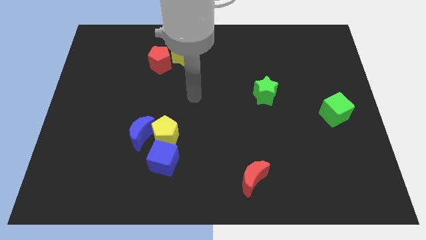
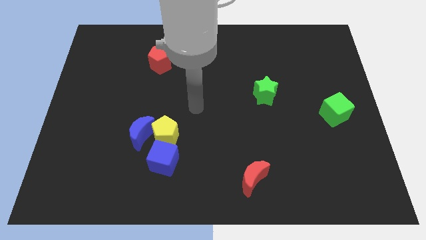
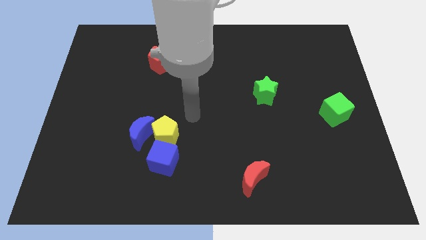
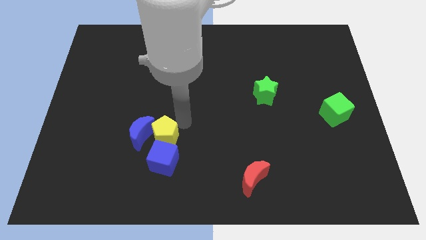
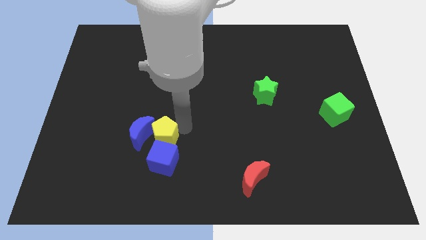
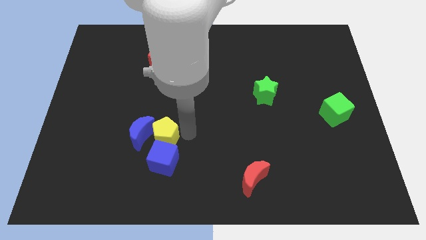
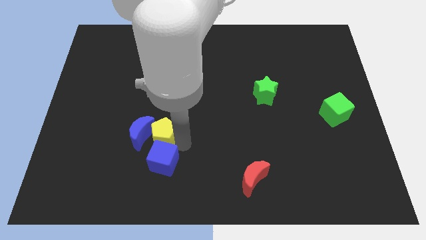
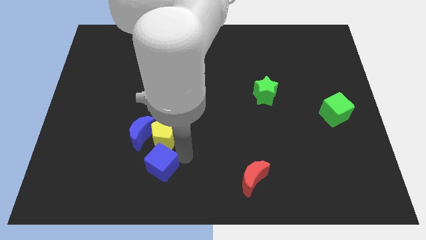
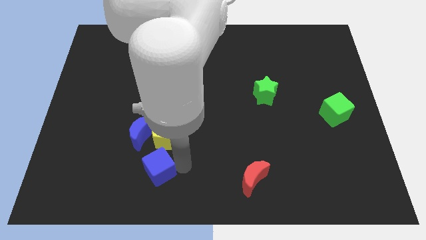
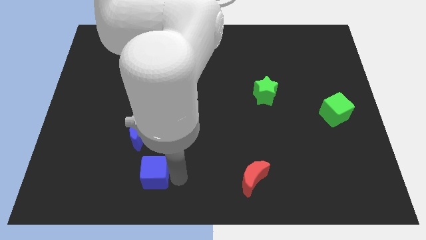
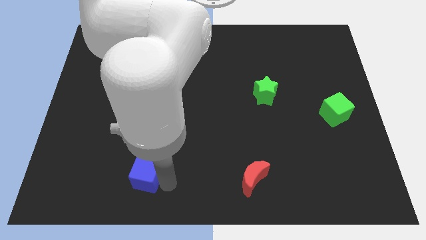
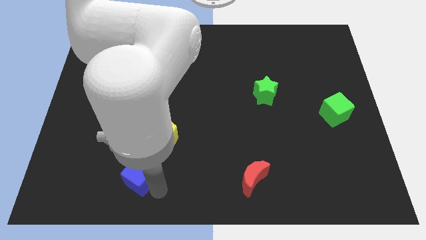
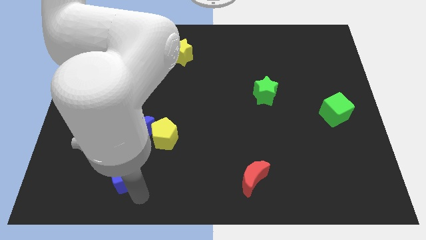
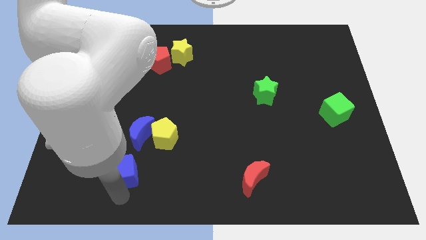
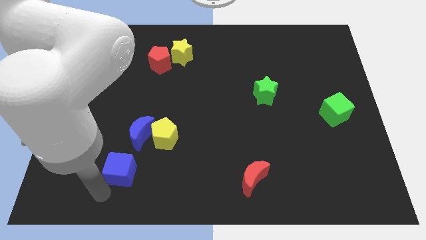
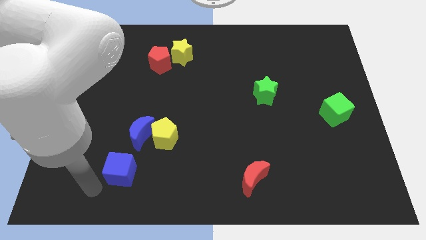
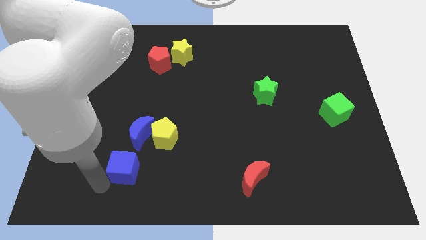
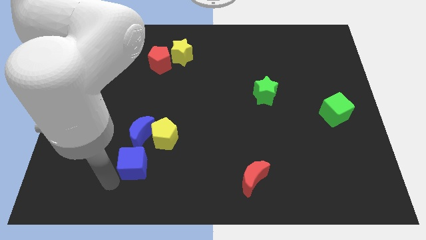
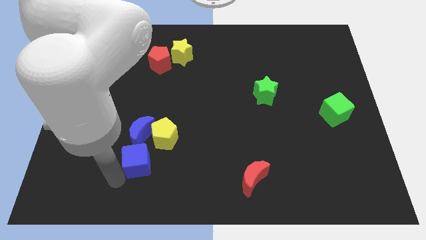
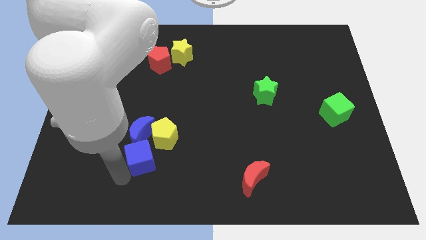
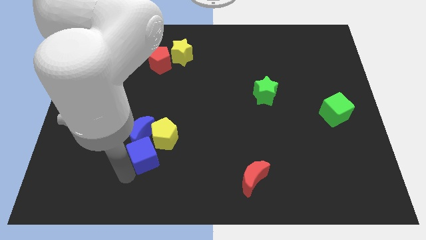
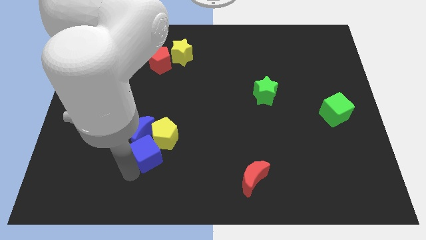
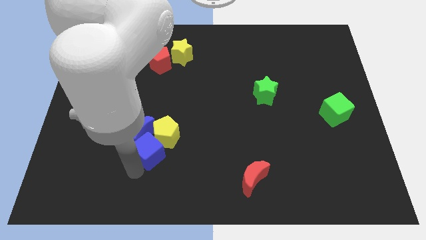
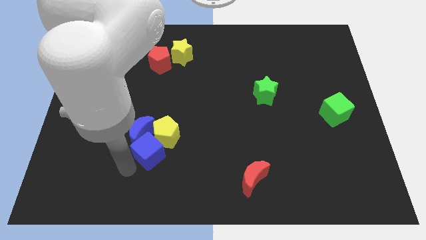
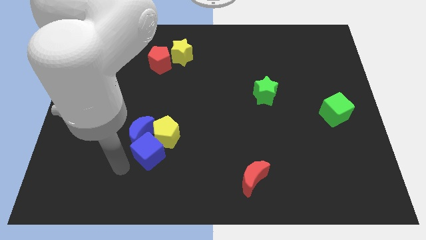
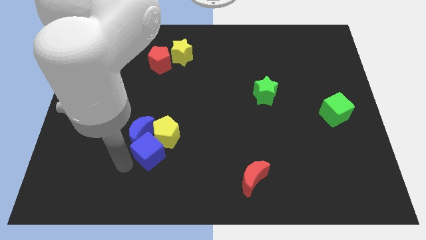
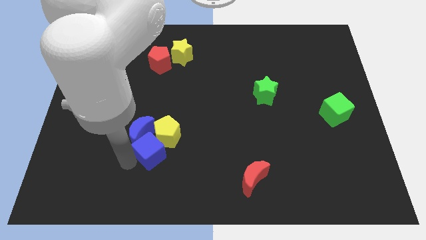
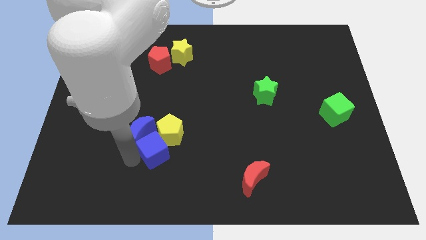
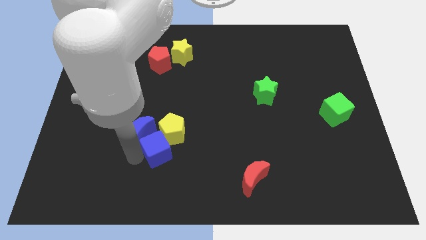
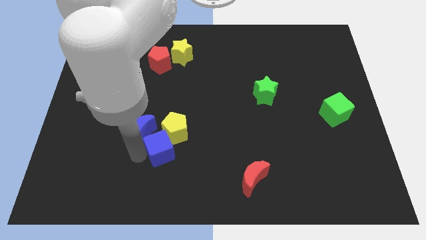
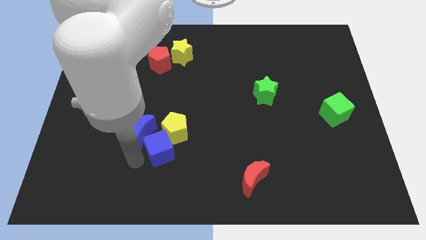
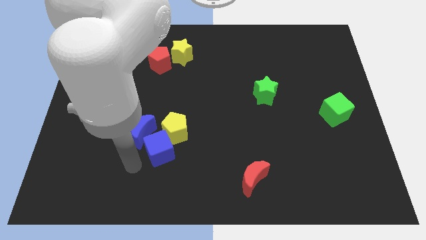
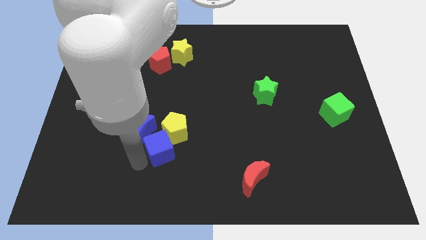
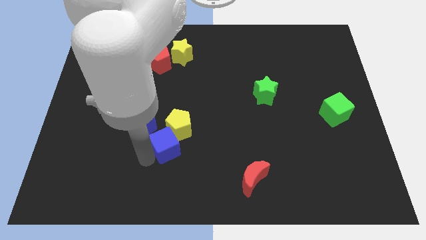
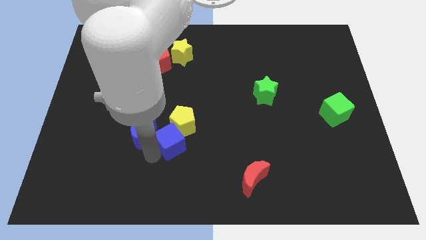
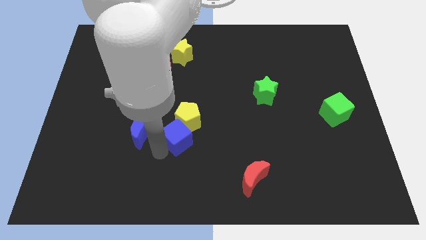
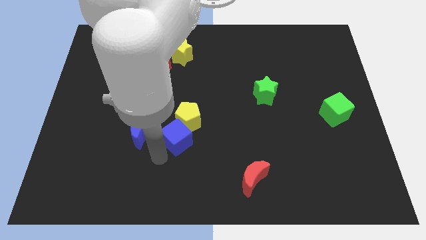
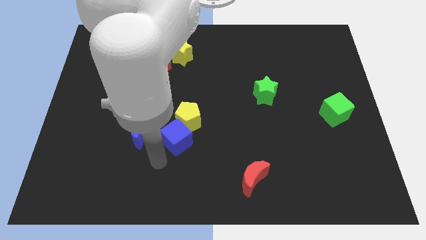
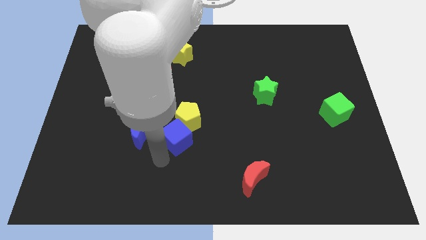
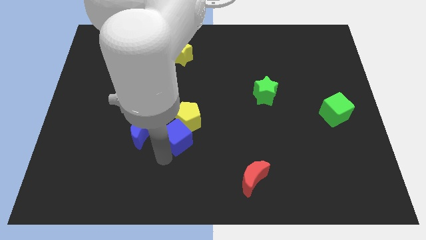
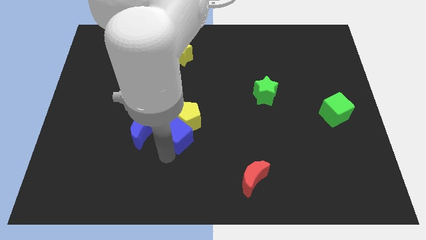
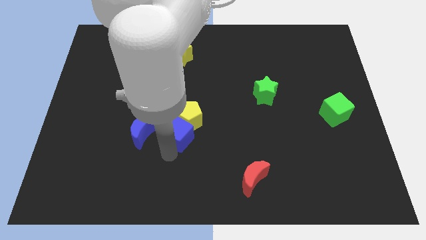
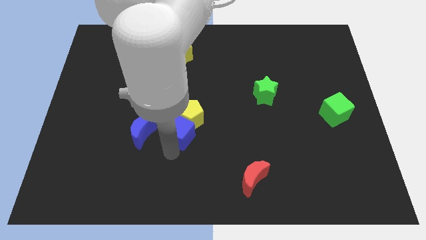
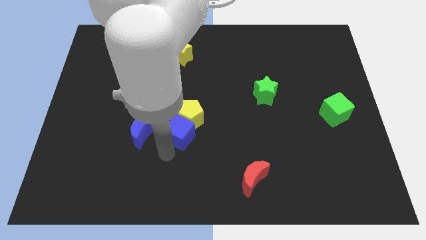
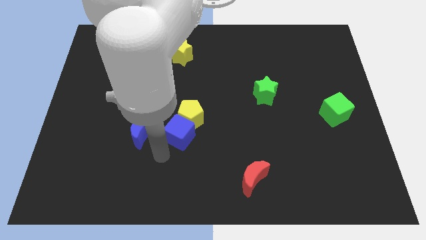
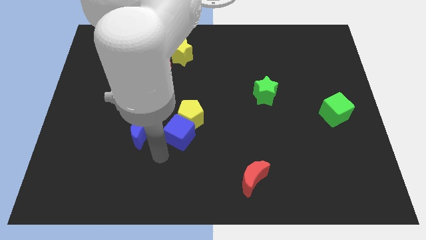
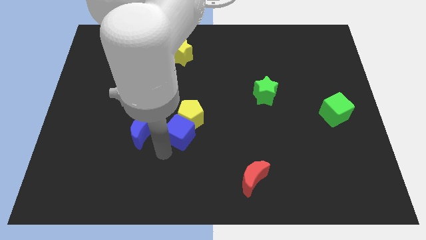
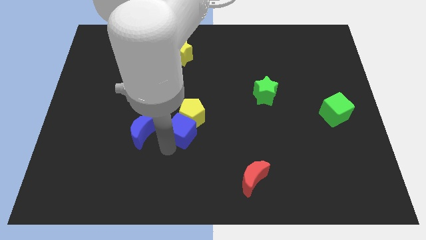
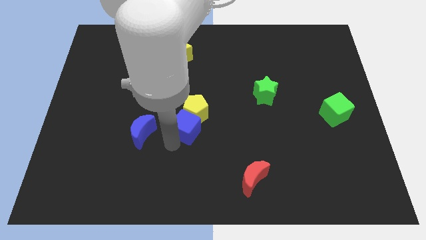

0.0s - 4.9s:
slide the blue cube up a bit

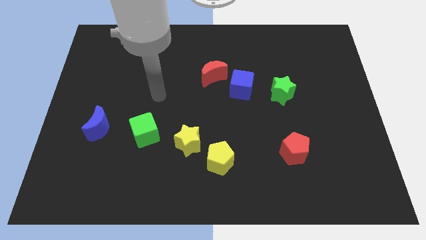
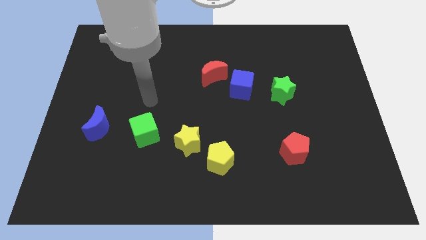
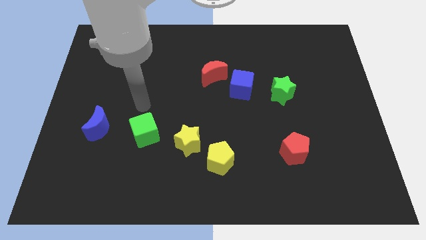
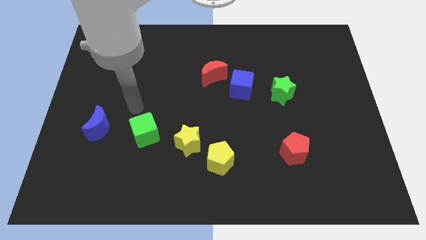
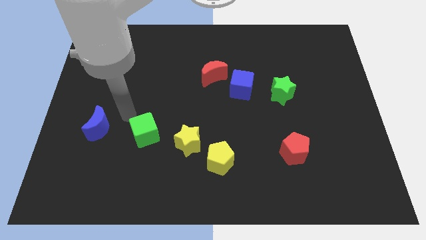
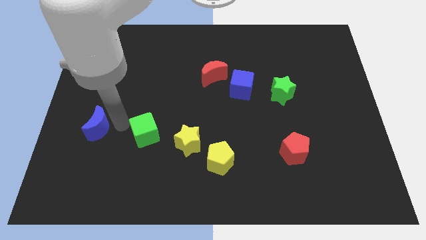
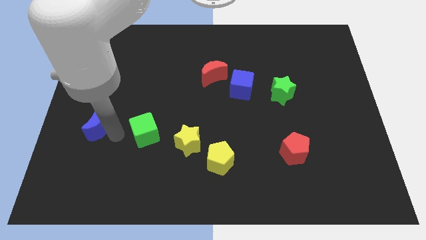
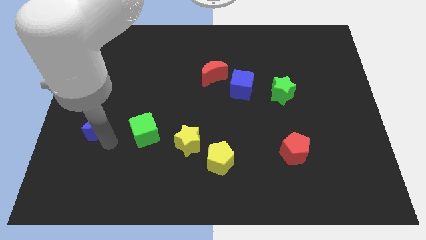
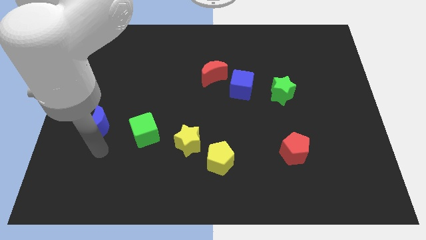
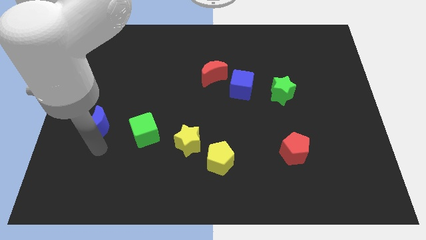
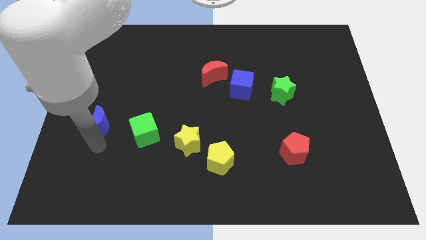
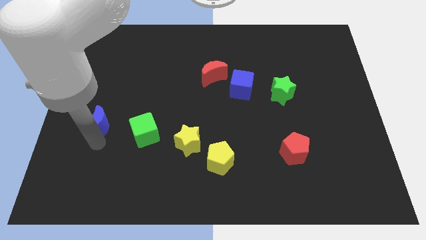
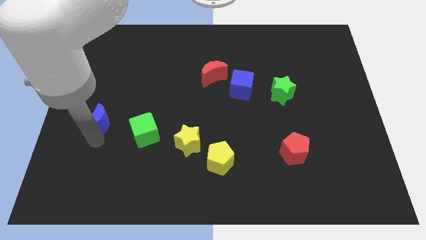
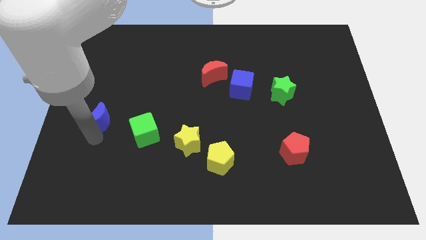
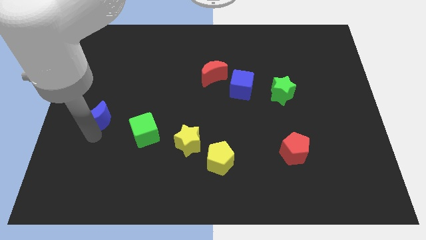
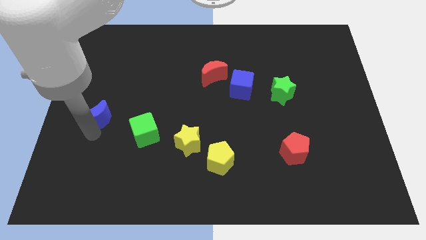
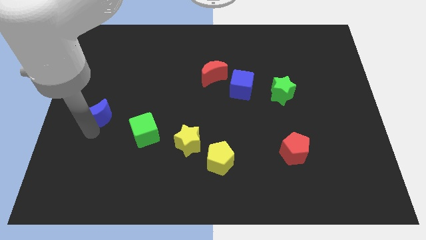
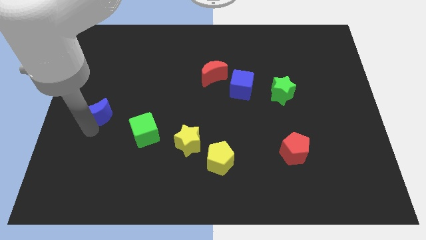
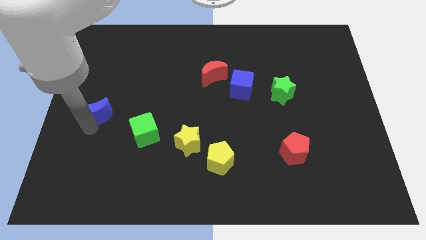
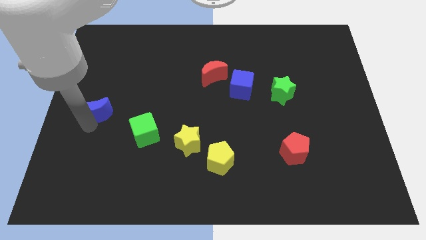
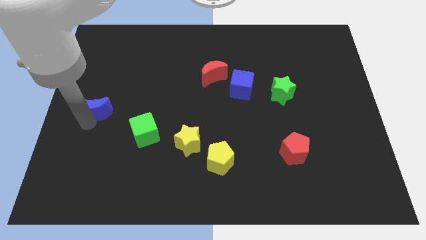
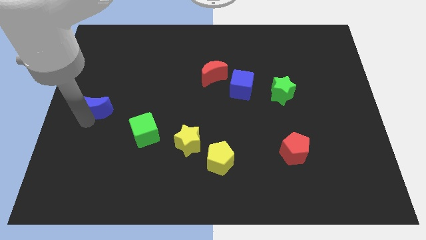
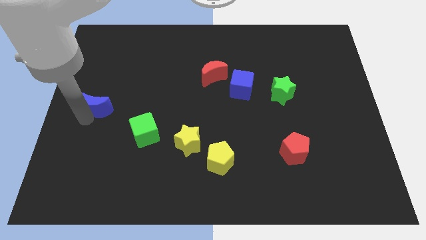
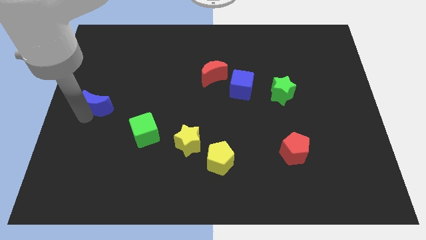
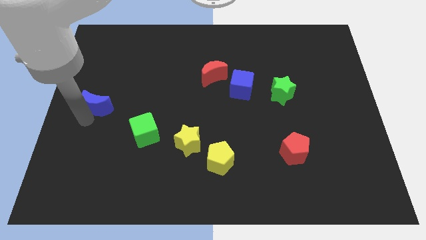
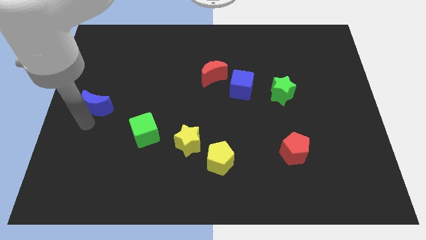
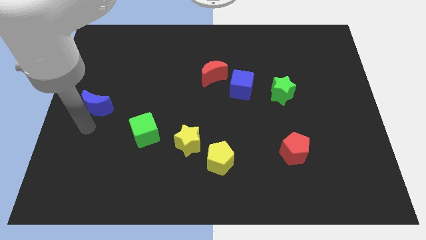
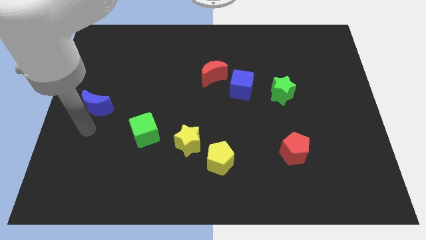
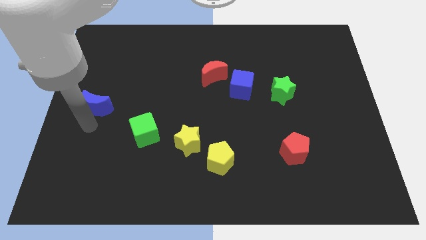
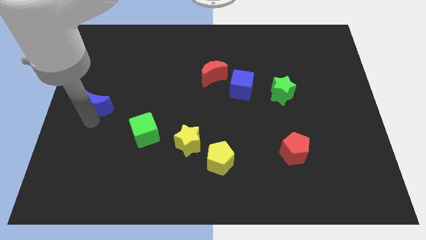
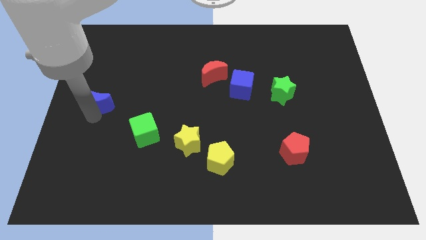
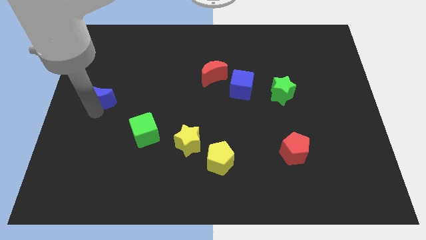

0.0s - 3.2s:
move the blue moon up a little
